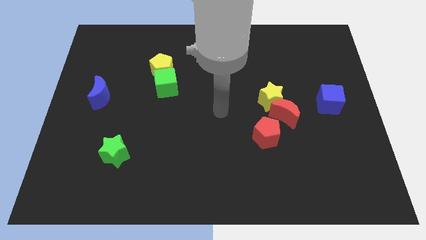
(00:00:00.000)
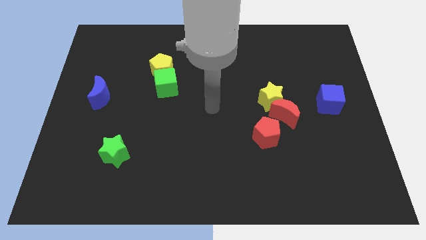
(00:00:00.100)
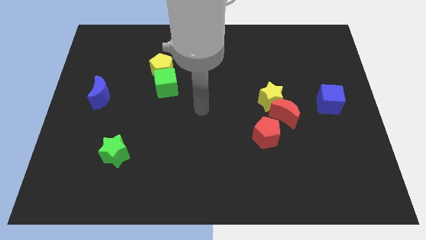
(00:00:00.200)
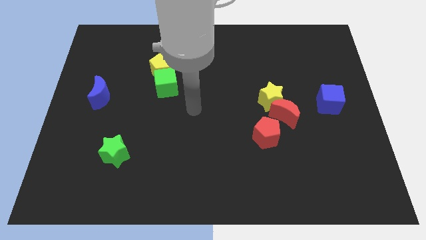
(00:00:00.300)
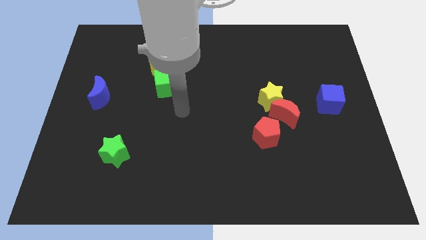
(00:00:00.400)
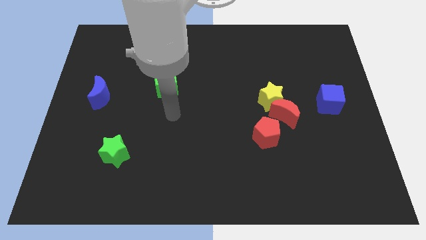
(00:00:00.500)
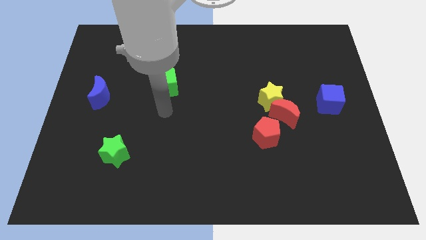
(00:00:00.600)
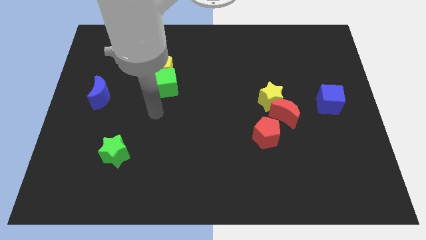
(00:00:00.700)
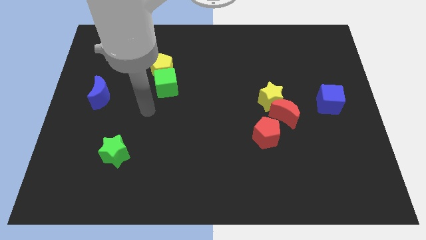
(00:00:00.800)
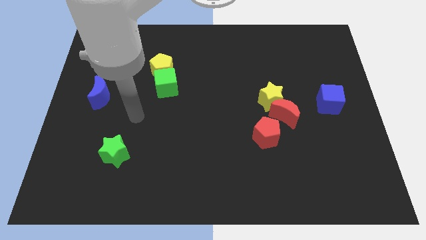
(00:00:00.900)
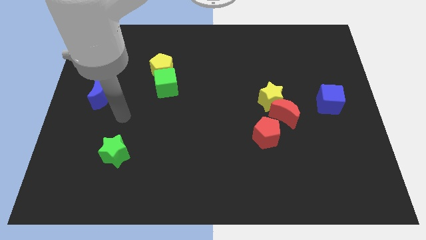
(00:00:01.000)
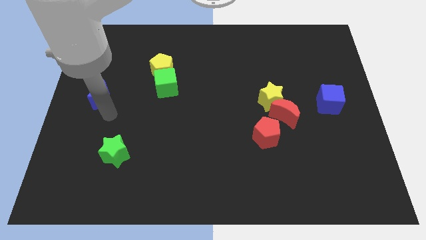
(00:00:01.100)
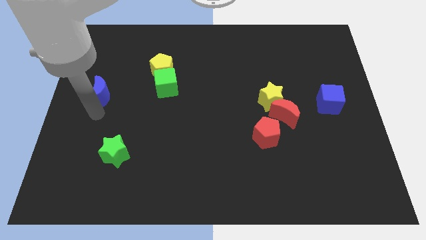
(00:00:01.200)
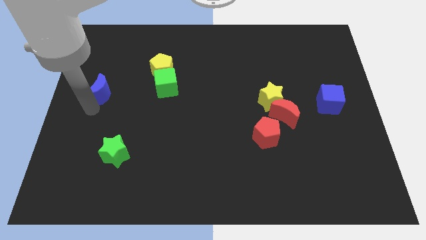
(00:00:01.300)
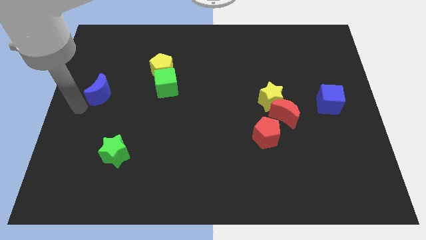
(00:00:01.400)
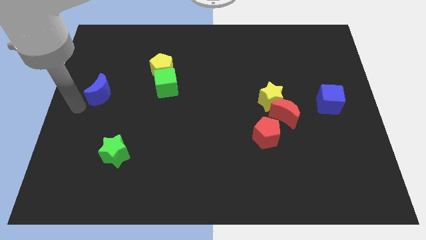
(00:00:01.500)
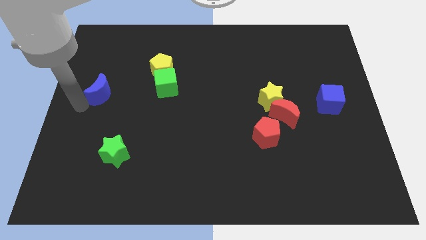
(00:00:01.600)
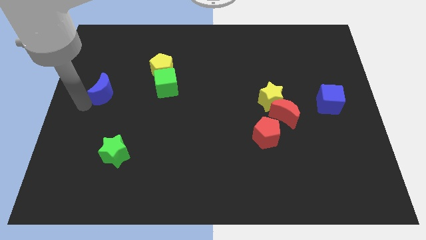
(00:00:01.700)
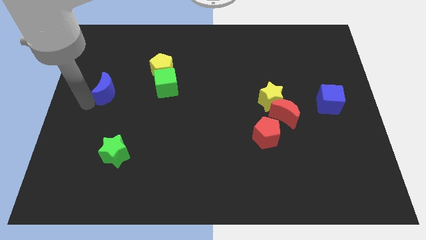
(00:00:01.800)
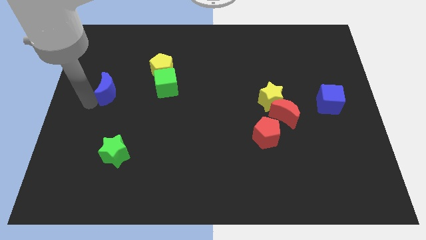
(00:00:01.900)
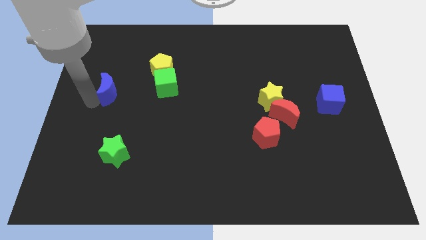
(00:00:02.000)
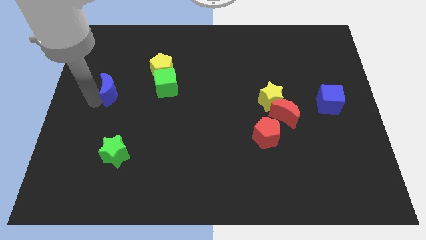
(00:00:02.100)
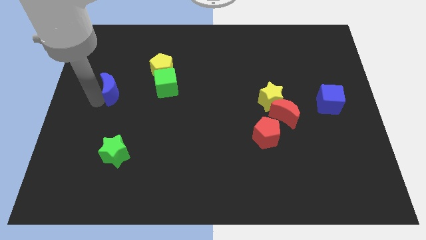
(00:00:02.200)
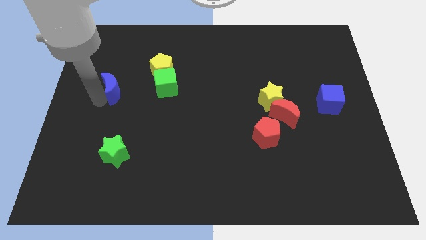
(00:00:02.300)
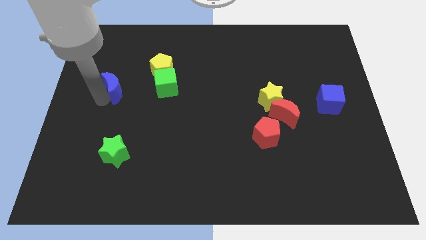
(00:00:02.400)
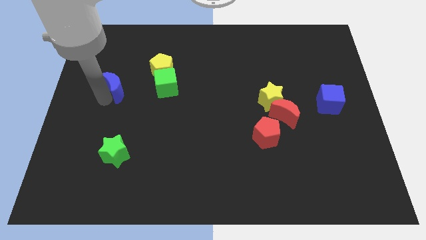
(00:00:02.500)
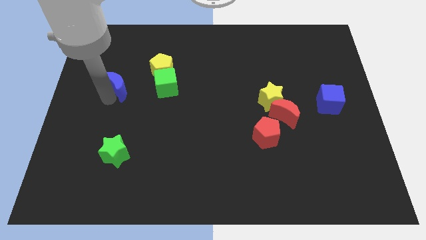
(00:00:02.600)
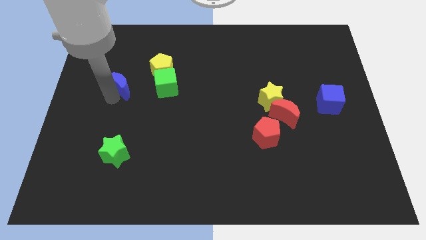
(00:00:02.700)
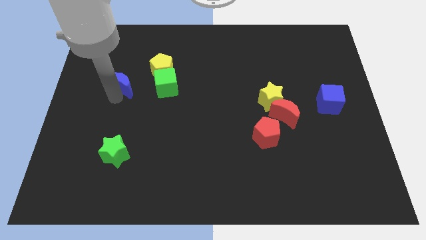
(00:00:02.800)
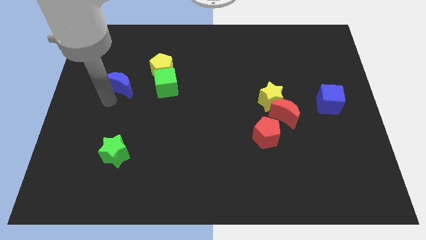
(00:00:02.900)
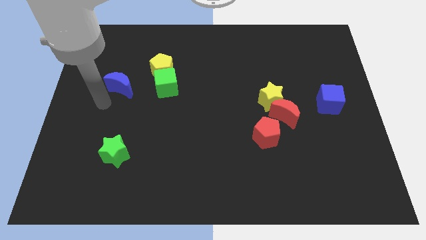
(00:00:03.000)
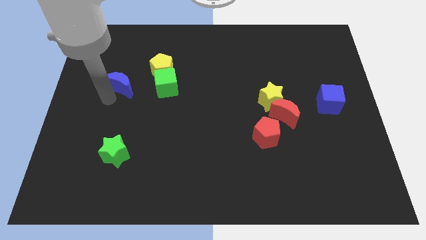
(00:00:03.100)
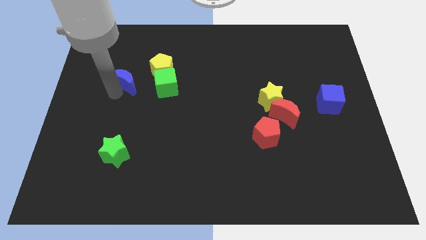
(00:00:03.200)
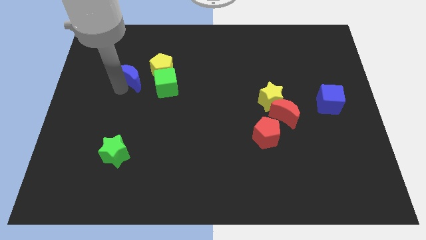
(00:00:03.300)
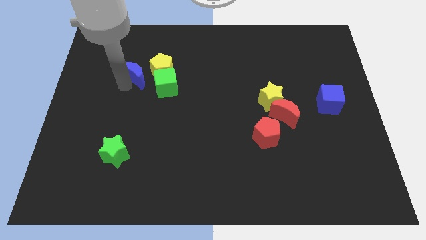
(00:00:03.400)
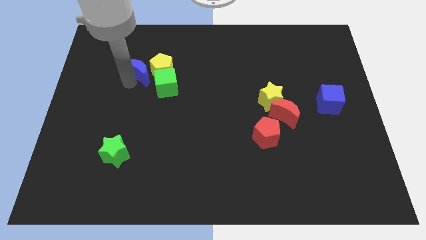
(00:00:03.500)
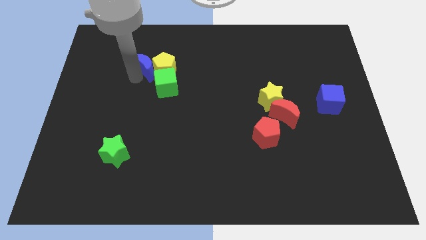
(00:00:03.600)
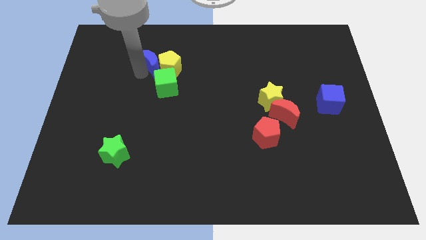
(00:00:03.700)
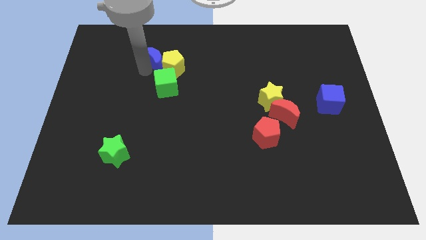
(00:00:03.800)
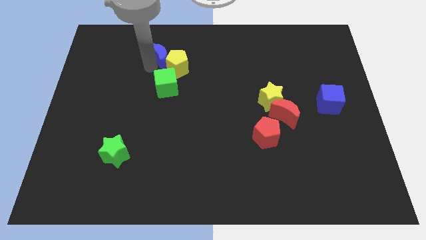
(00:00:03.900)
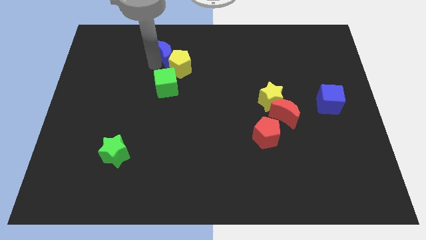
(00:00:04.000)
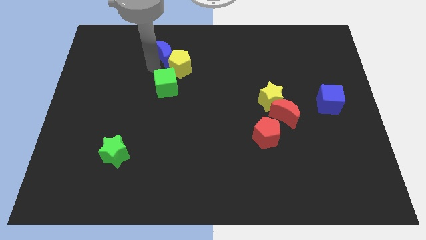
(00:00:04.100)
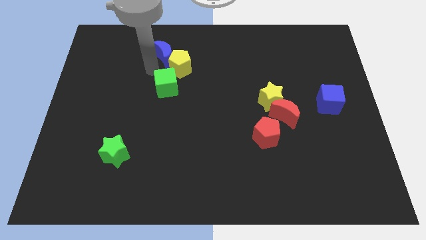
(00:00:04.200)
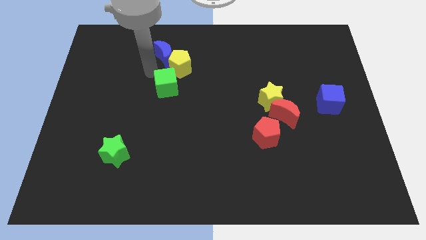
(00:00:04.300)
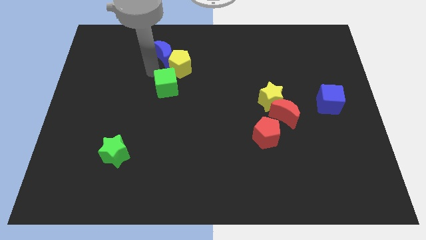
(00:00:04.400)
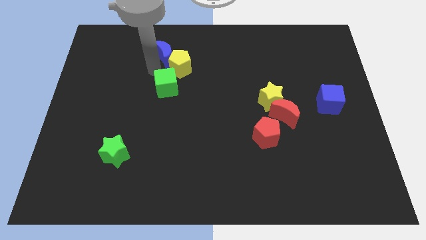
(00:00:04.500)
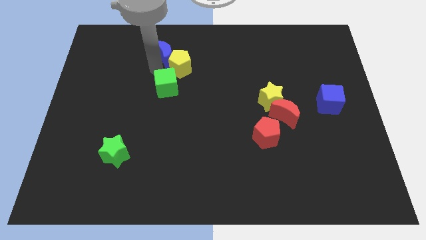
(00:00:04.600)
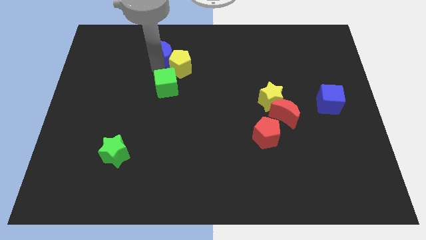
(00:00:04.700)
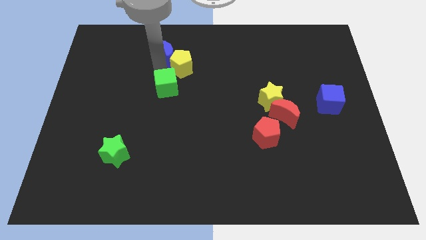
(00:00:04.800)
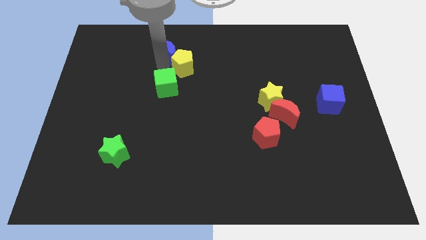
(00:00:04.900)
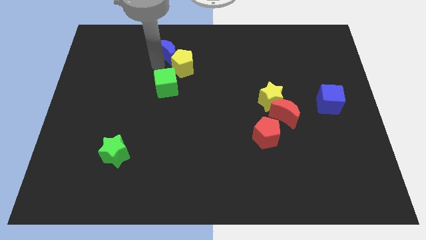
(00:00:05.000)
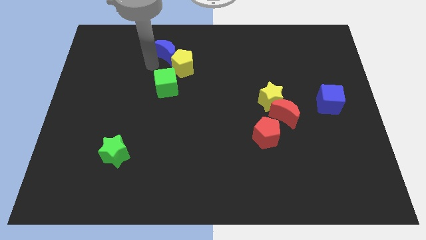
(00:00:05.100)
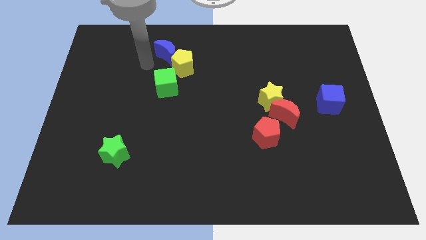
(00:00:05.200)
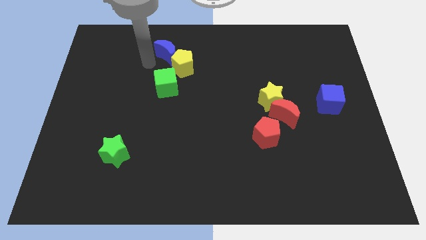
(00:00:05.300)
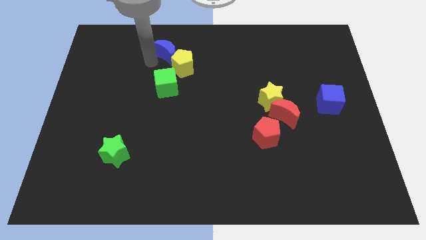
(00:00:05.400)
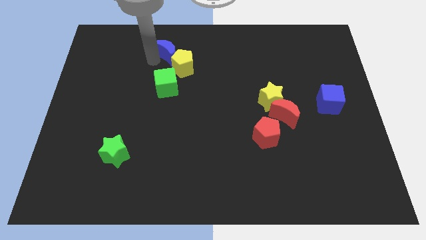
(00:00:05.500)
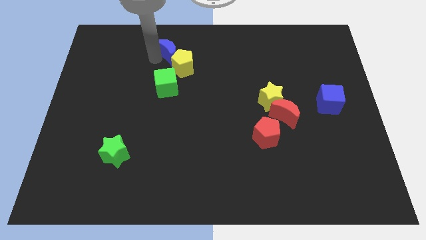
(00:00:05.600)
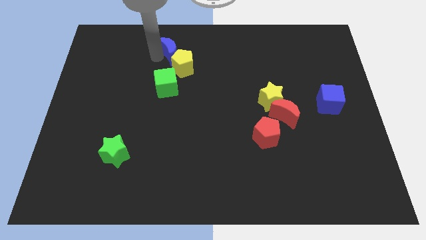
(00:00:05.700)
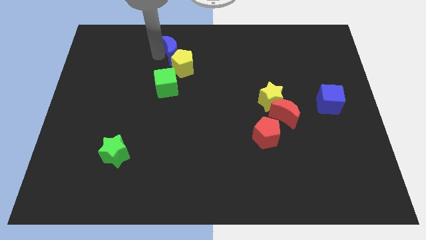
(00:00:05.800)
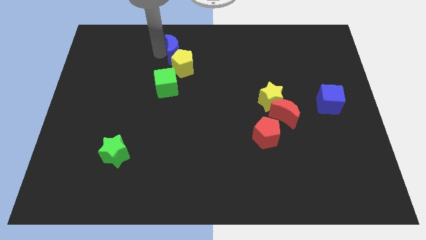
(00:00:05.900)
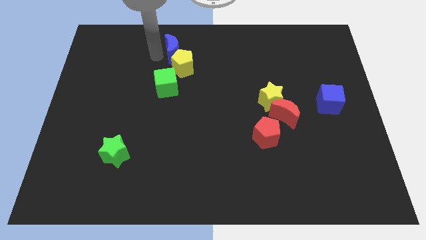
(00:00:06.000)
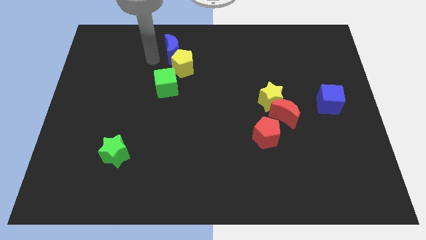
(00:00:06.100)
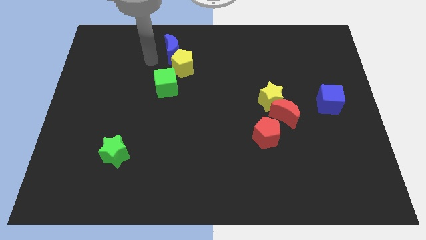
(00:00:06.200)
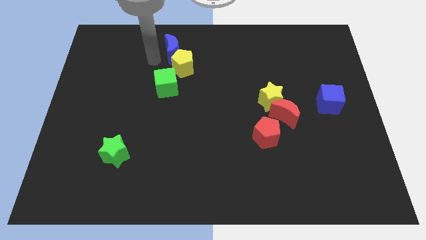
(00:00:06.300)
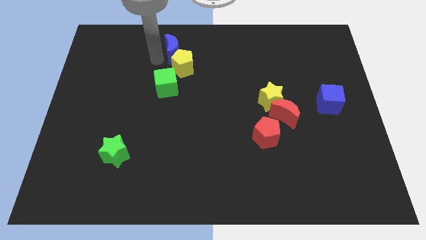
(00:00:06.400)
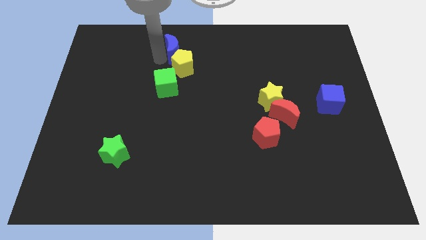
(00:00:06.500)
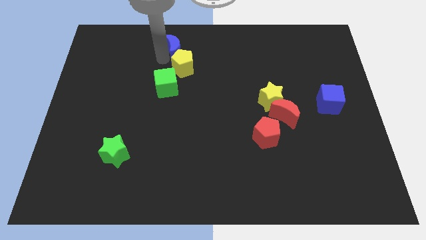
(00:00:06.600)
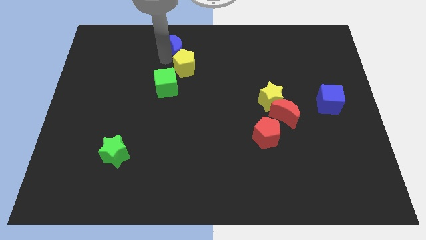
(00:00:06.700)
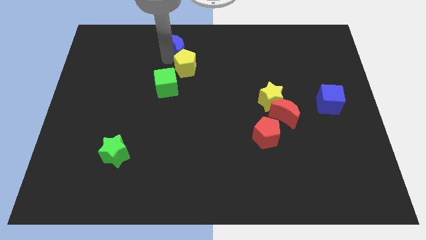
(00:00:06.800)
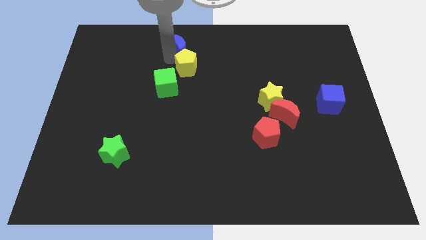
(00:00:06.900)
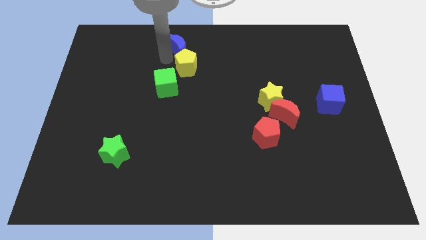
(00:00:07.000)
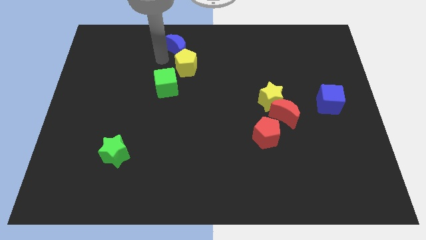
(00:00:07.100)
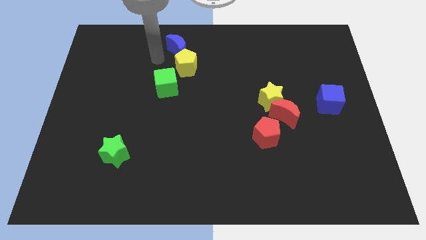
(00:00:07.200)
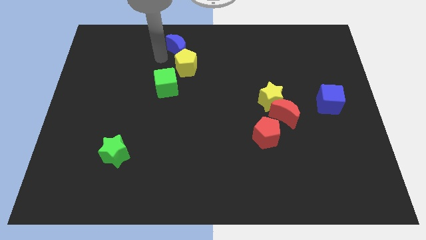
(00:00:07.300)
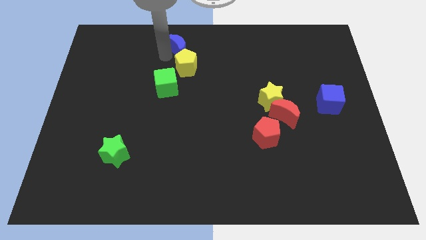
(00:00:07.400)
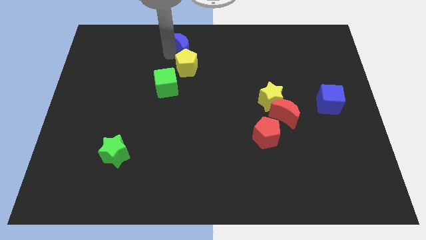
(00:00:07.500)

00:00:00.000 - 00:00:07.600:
slide the blue moon to the top

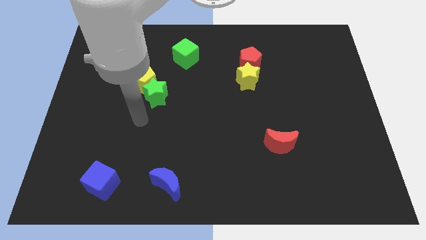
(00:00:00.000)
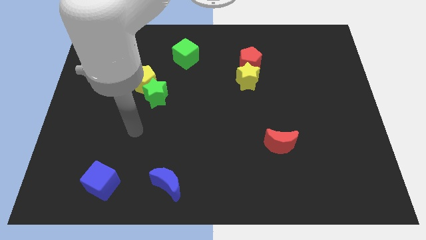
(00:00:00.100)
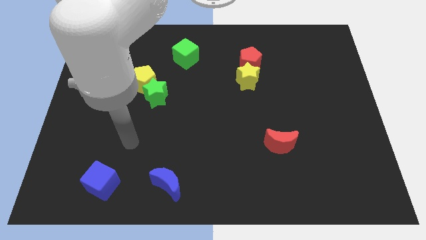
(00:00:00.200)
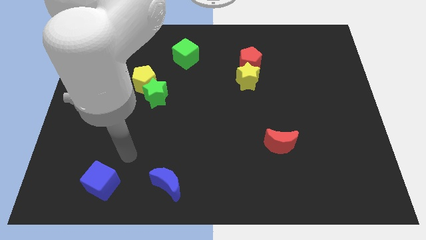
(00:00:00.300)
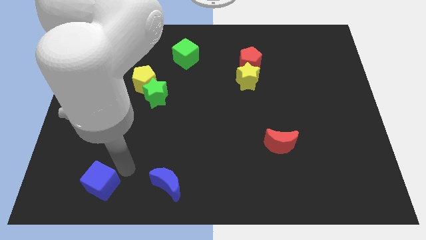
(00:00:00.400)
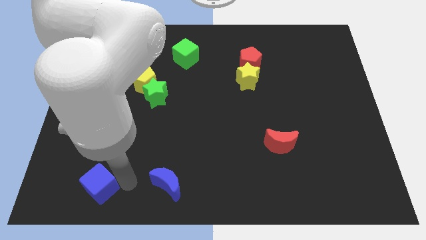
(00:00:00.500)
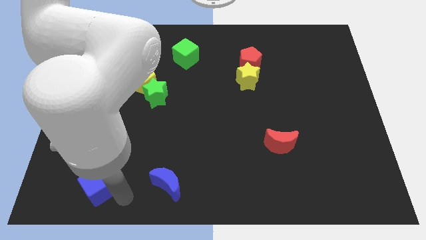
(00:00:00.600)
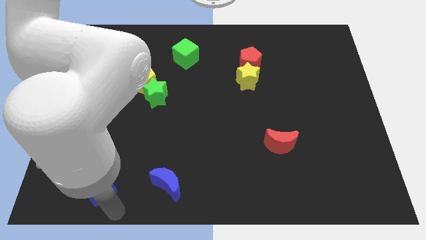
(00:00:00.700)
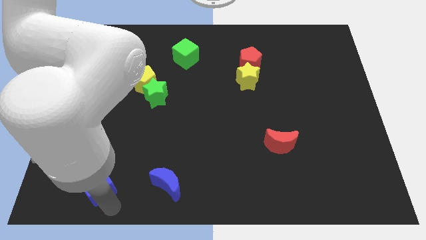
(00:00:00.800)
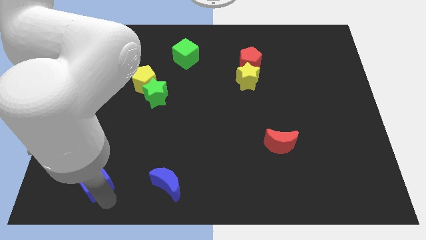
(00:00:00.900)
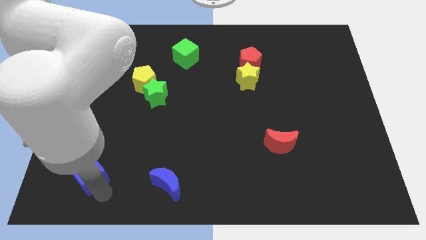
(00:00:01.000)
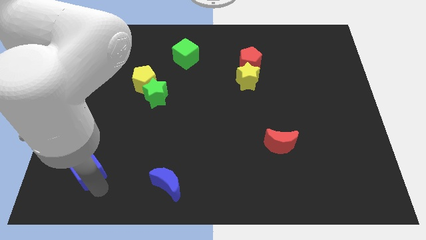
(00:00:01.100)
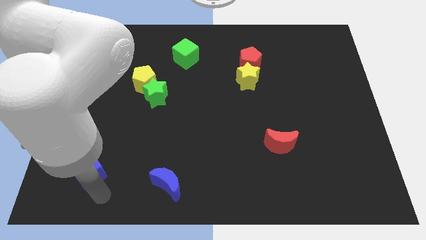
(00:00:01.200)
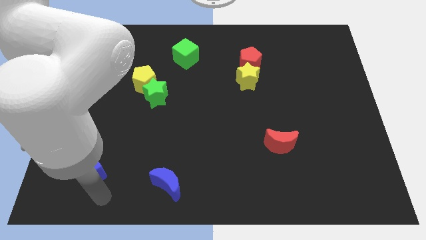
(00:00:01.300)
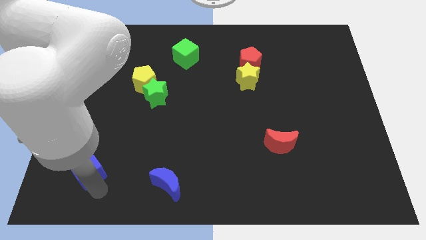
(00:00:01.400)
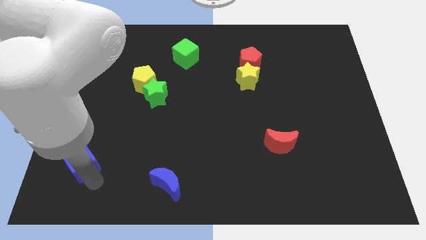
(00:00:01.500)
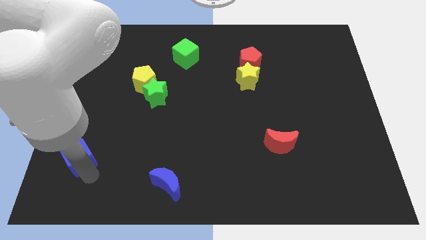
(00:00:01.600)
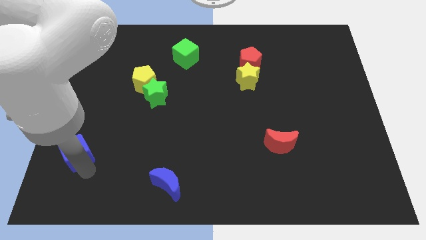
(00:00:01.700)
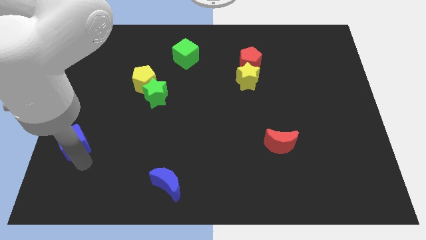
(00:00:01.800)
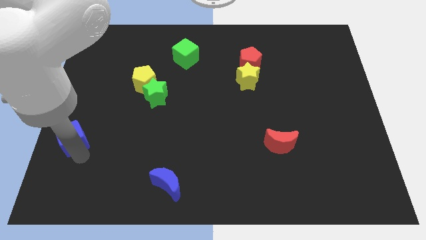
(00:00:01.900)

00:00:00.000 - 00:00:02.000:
put the blue cube to the left side
